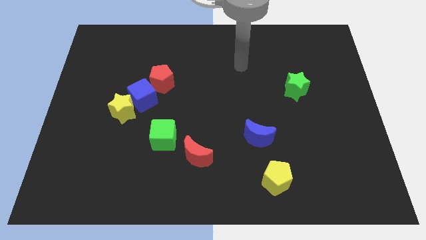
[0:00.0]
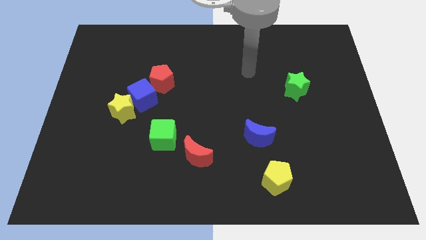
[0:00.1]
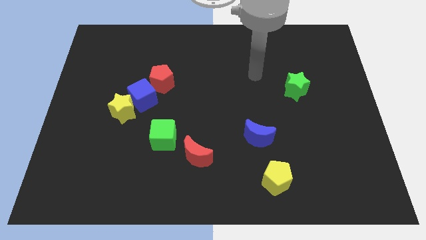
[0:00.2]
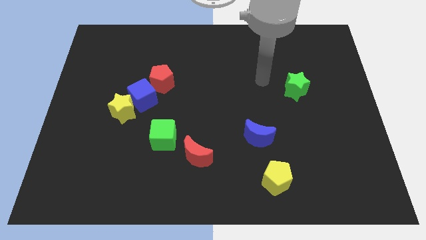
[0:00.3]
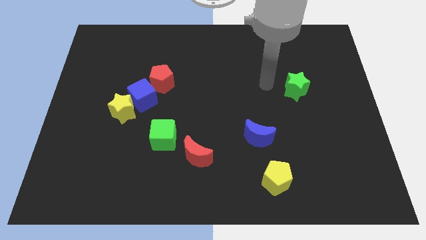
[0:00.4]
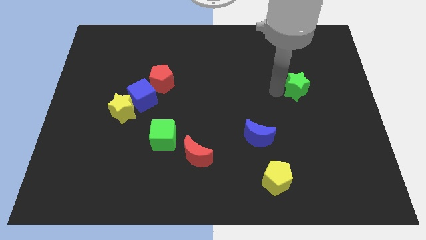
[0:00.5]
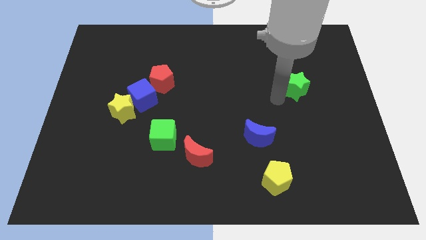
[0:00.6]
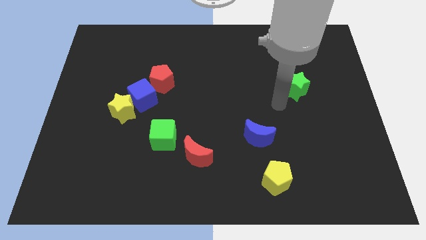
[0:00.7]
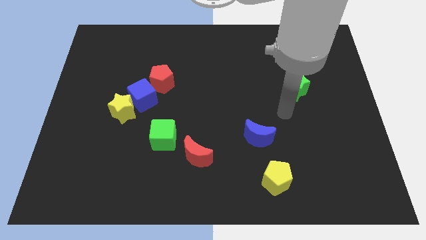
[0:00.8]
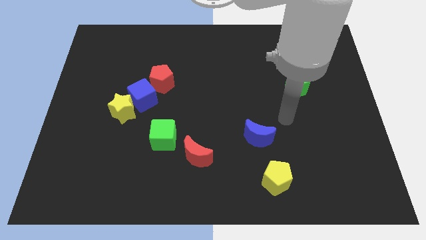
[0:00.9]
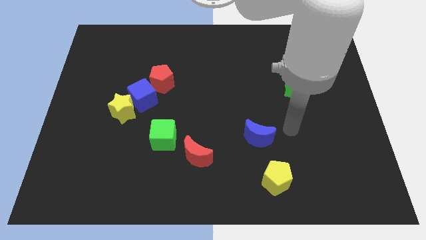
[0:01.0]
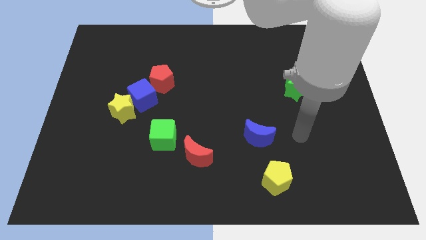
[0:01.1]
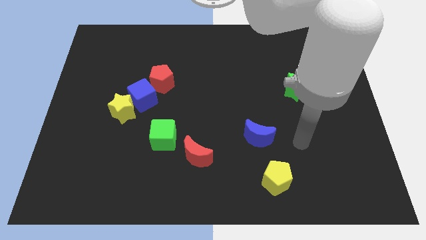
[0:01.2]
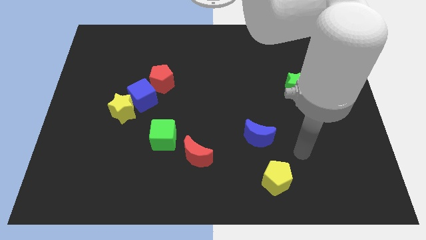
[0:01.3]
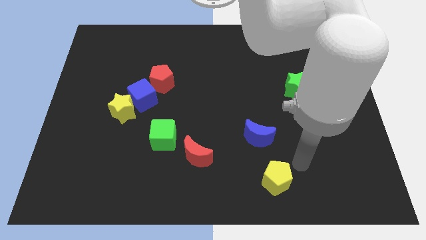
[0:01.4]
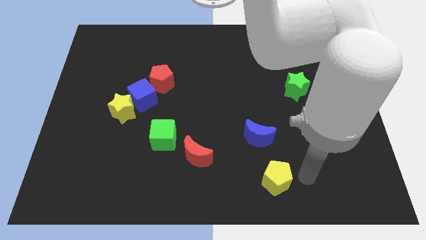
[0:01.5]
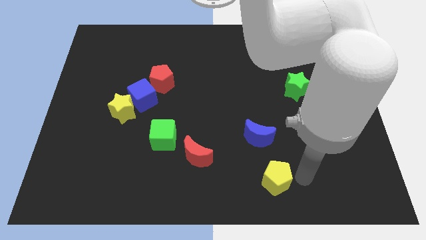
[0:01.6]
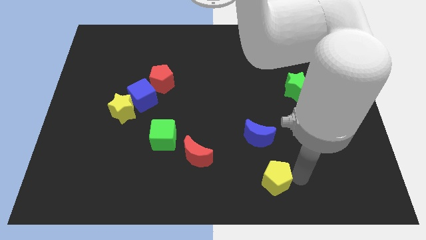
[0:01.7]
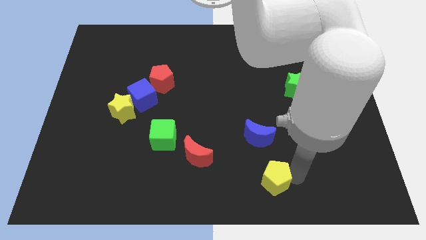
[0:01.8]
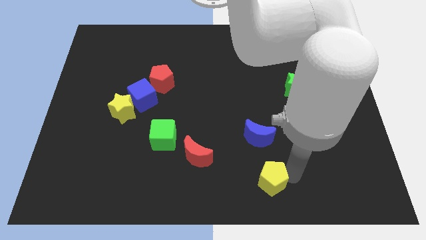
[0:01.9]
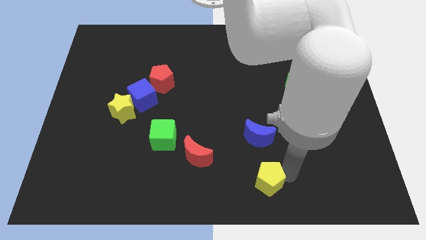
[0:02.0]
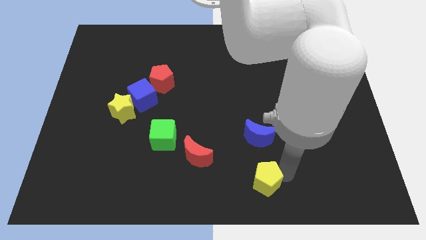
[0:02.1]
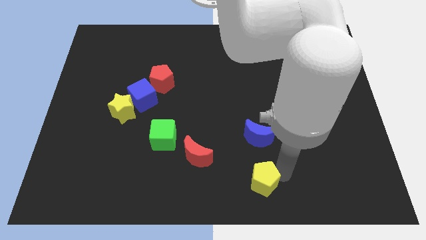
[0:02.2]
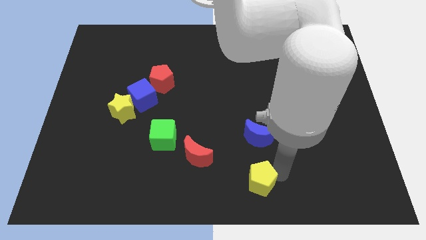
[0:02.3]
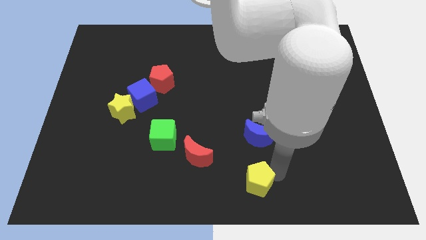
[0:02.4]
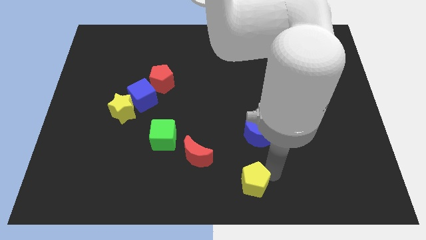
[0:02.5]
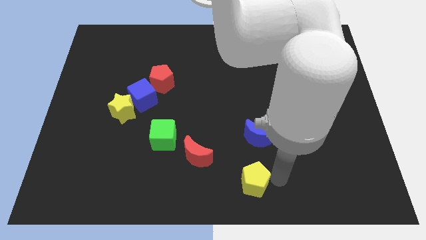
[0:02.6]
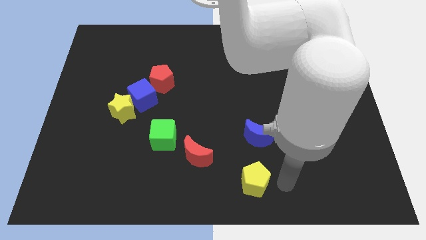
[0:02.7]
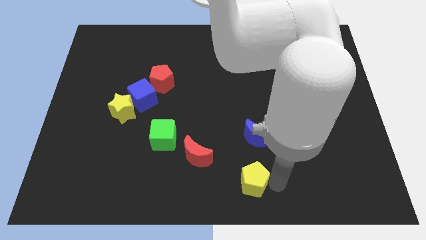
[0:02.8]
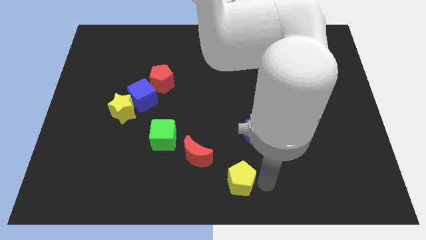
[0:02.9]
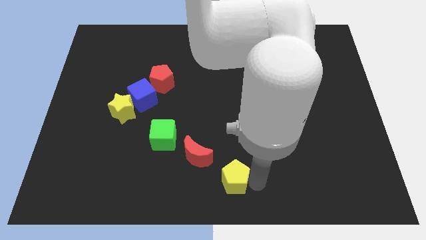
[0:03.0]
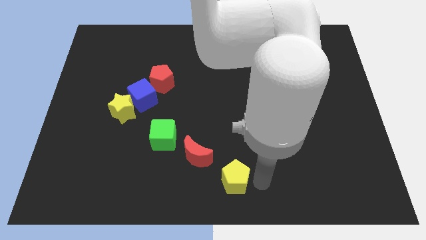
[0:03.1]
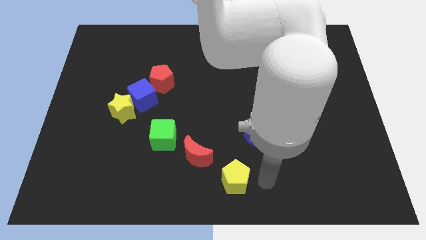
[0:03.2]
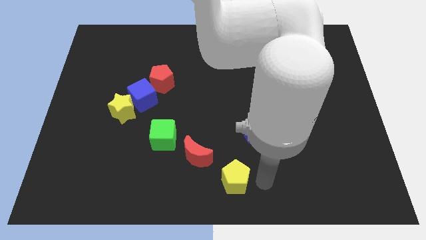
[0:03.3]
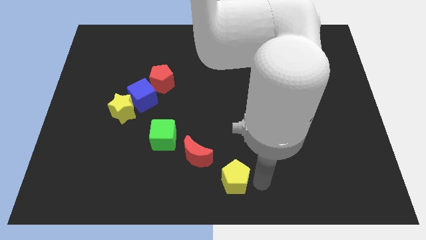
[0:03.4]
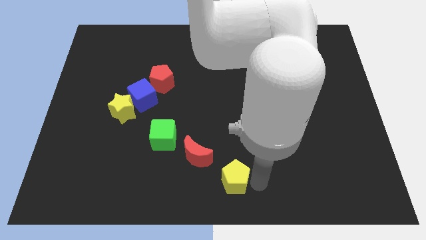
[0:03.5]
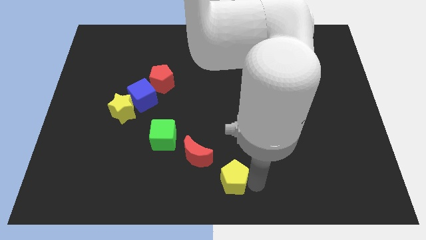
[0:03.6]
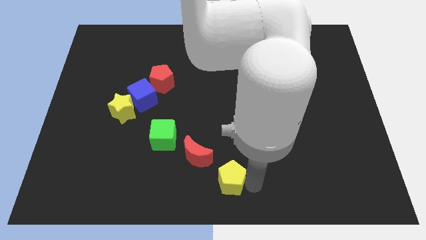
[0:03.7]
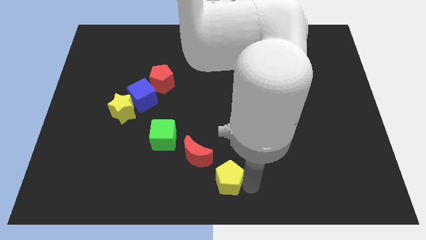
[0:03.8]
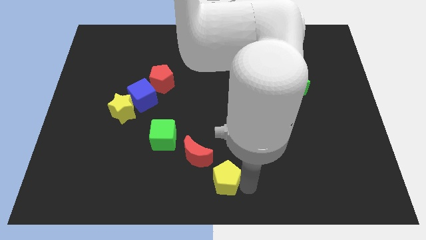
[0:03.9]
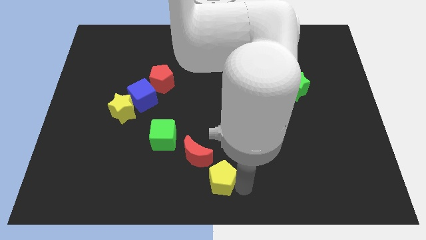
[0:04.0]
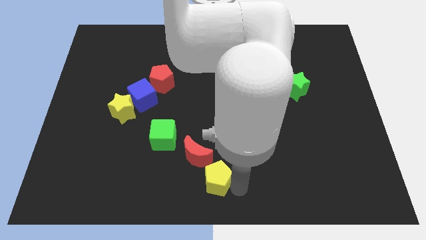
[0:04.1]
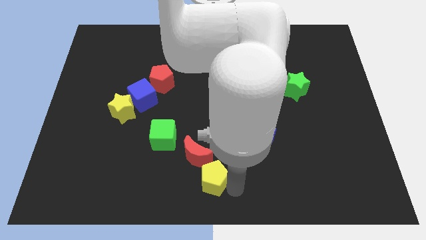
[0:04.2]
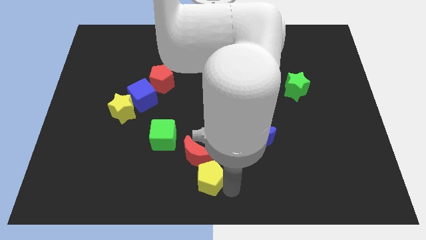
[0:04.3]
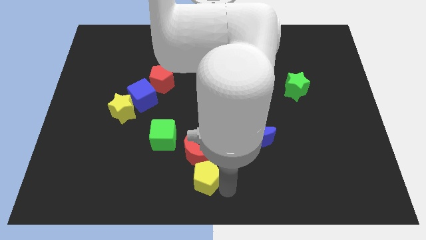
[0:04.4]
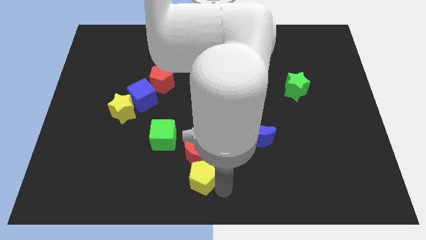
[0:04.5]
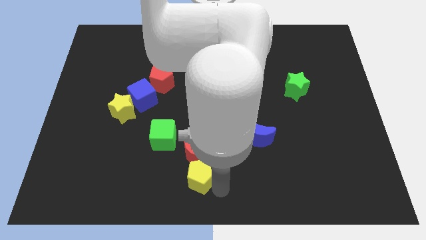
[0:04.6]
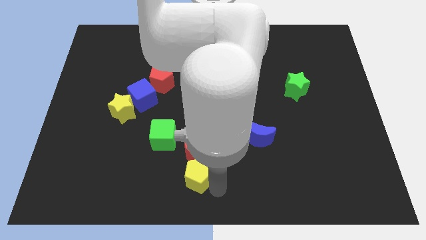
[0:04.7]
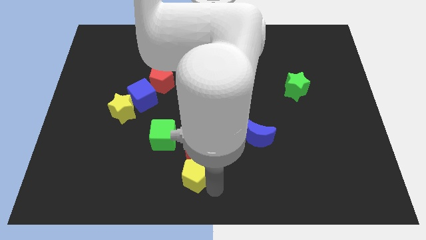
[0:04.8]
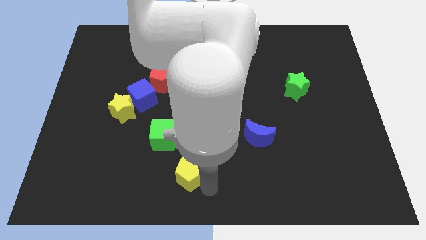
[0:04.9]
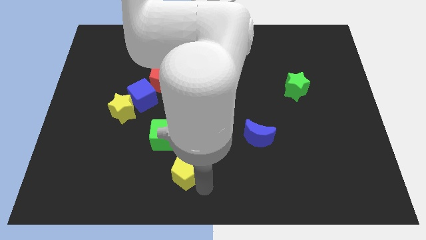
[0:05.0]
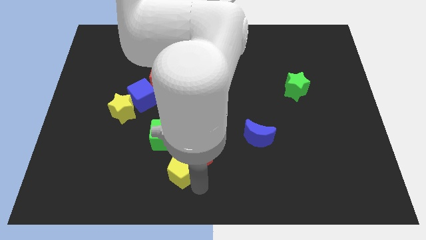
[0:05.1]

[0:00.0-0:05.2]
move the yellow pentagon to the left side of the red moon

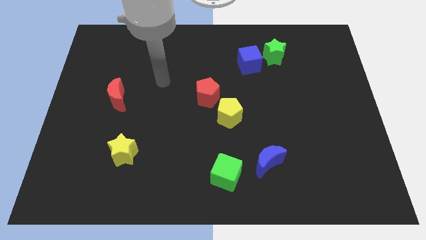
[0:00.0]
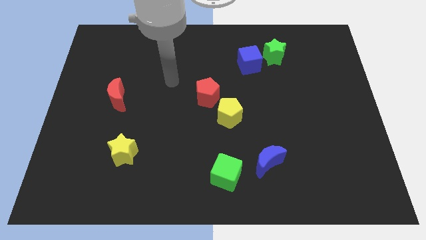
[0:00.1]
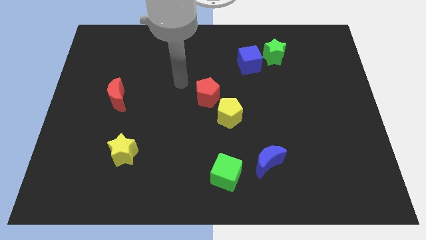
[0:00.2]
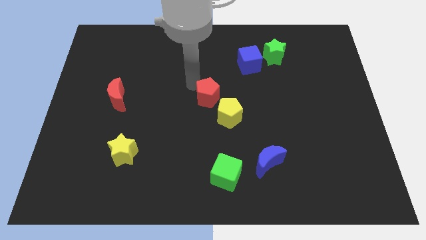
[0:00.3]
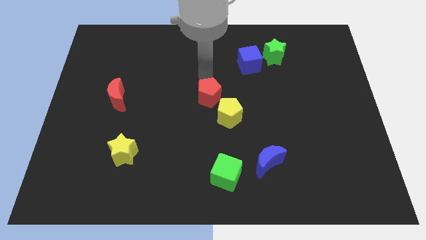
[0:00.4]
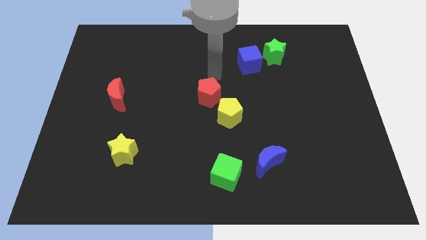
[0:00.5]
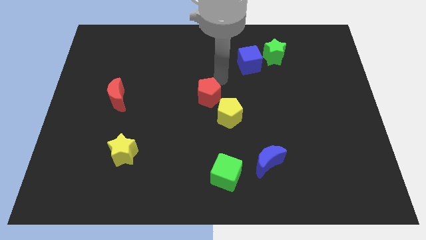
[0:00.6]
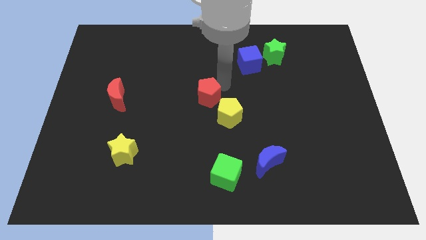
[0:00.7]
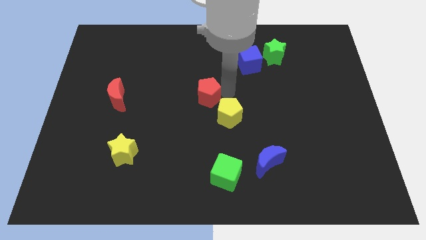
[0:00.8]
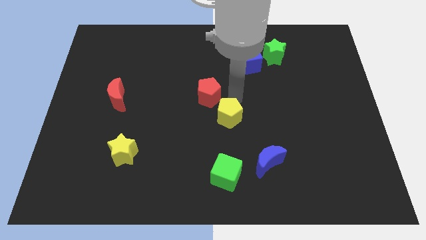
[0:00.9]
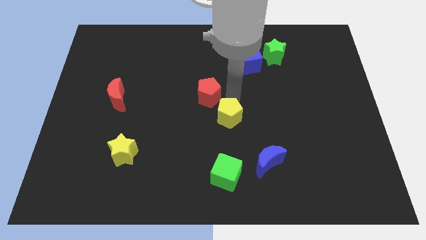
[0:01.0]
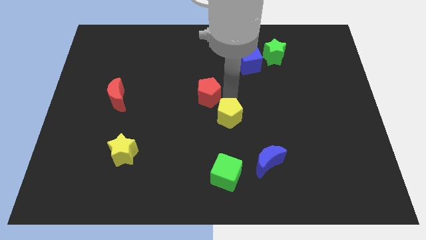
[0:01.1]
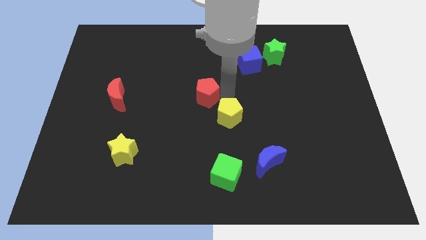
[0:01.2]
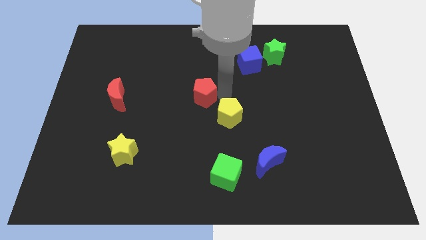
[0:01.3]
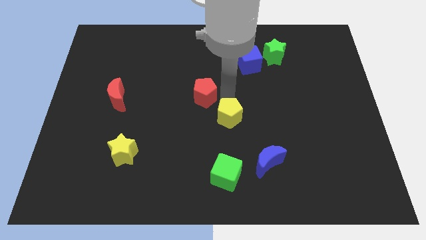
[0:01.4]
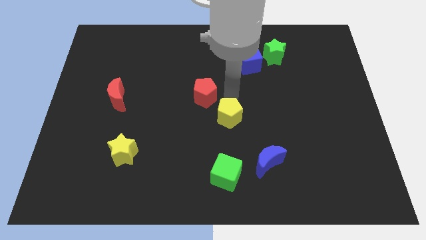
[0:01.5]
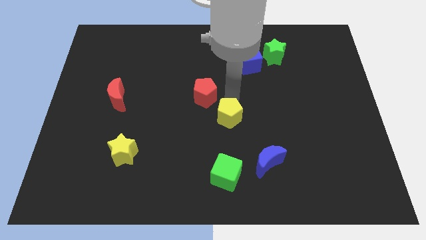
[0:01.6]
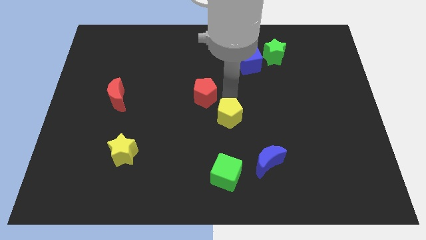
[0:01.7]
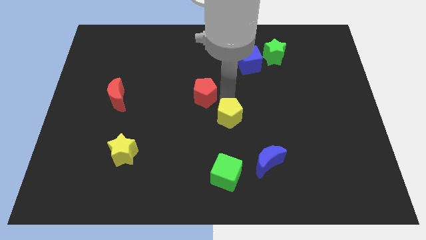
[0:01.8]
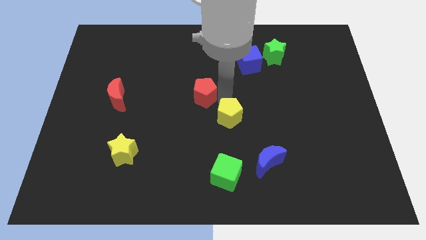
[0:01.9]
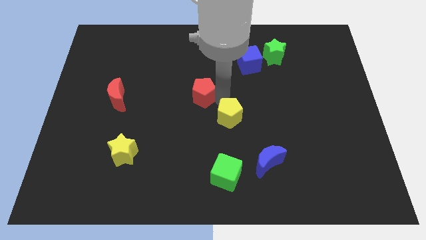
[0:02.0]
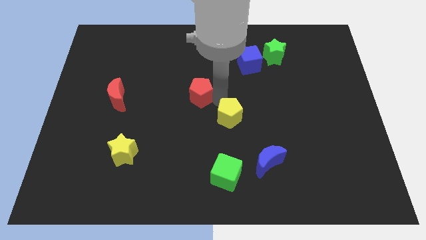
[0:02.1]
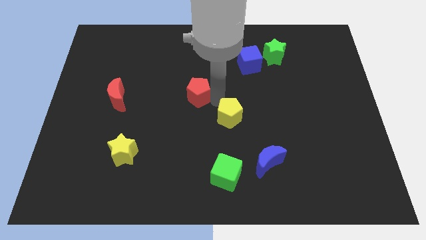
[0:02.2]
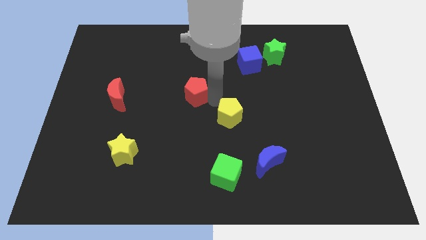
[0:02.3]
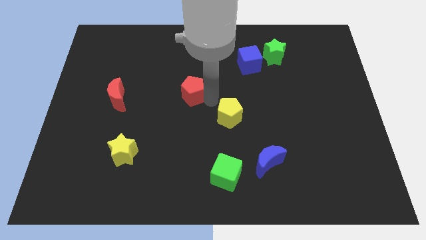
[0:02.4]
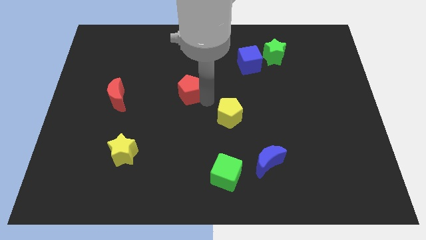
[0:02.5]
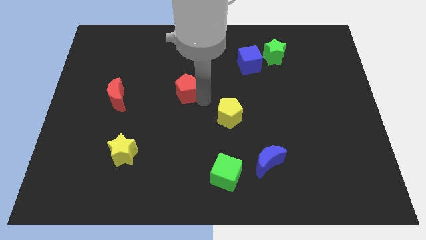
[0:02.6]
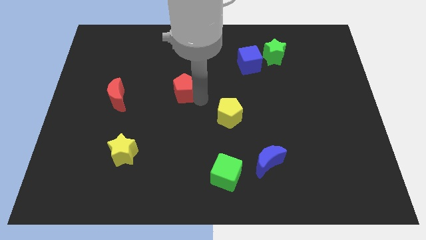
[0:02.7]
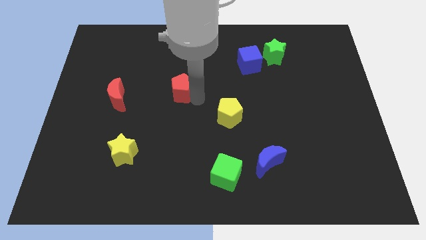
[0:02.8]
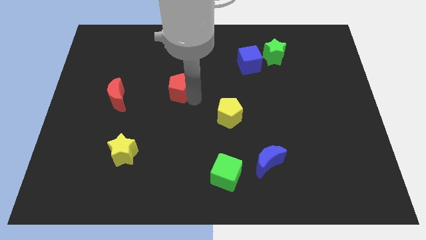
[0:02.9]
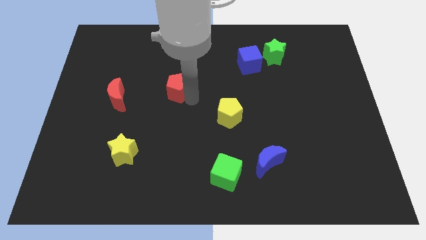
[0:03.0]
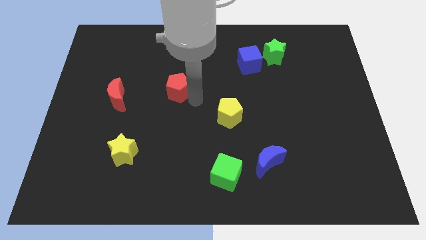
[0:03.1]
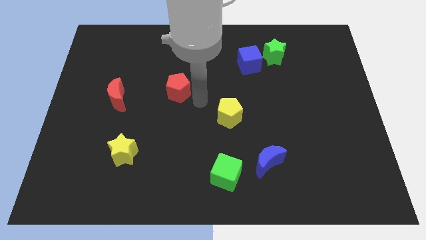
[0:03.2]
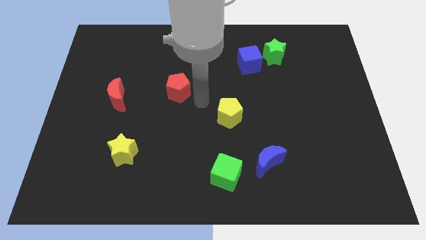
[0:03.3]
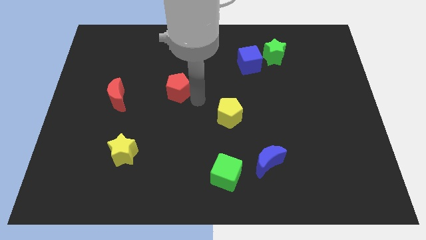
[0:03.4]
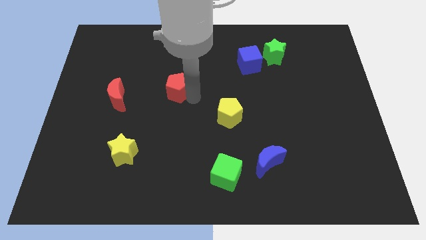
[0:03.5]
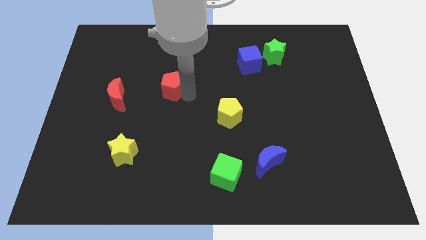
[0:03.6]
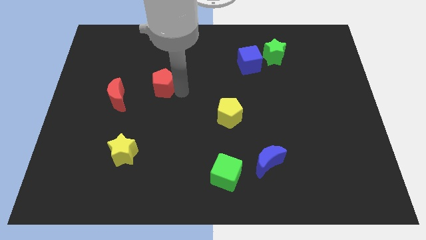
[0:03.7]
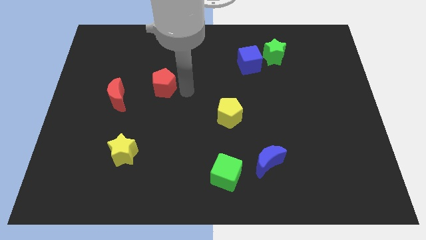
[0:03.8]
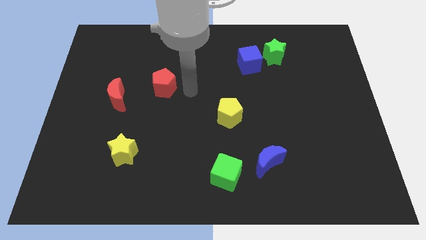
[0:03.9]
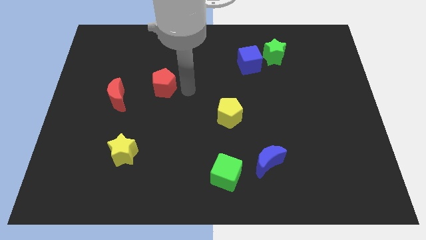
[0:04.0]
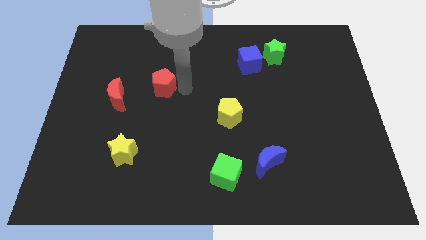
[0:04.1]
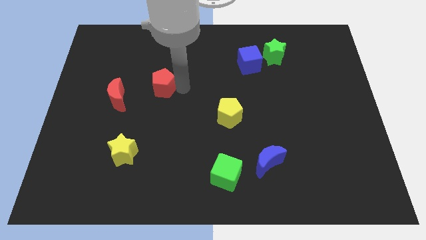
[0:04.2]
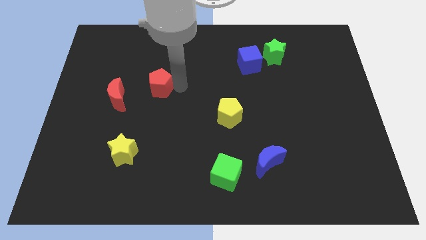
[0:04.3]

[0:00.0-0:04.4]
slide the red pentagon to the top right side of the red moon
